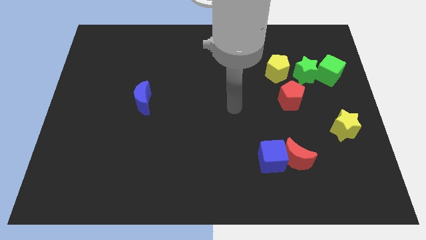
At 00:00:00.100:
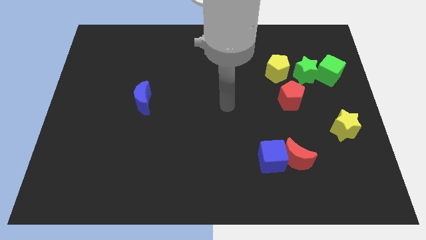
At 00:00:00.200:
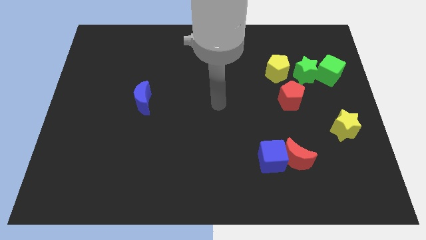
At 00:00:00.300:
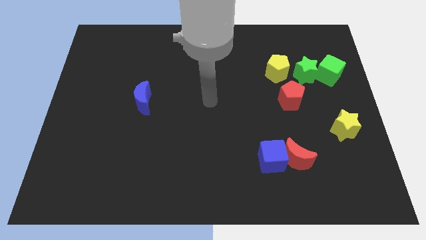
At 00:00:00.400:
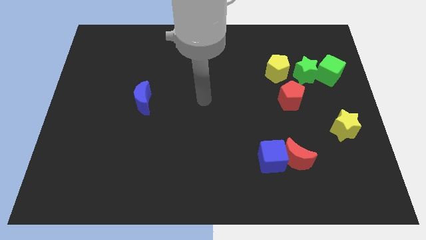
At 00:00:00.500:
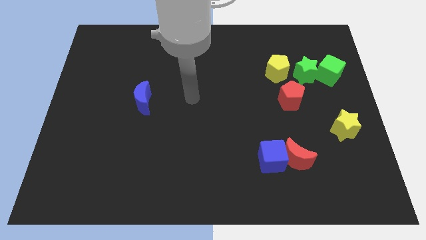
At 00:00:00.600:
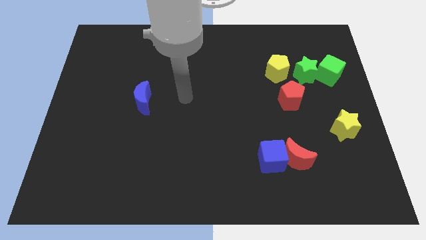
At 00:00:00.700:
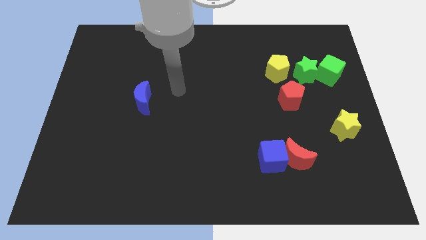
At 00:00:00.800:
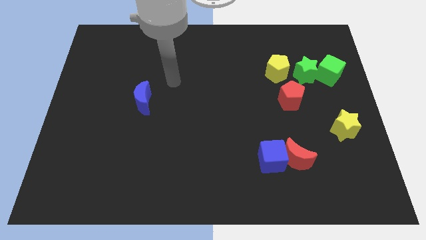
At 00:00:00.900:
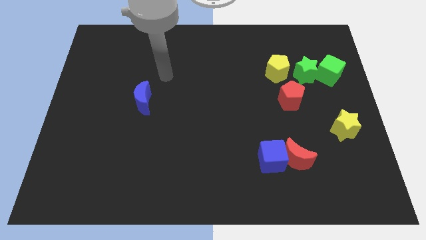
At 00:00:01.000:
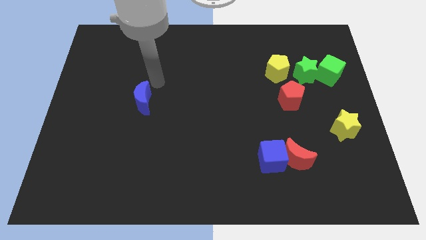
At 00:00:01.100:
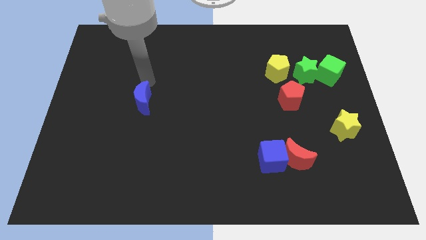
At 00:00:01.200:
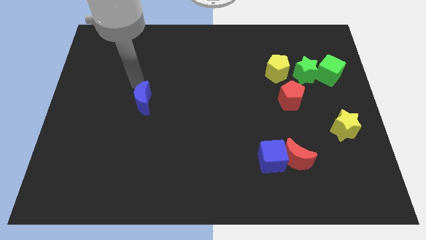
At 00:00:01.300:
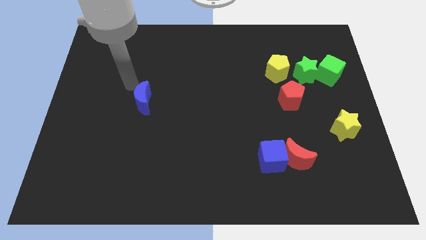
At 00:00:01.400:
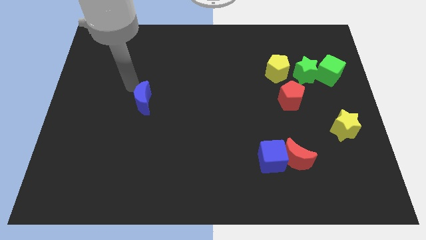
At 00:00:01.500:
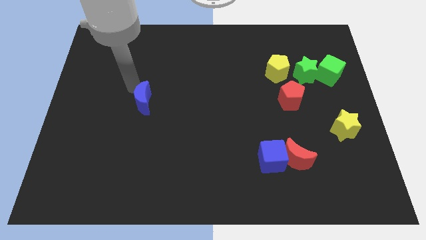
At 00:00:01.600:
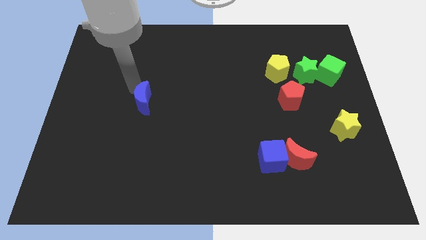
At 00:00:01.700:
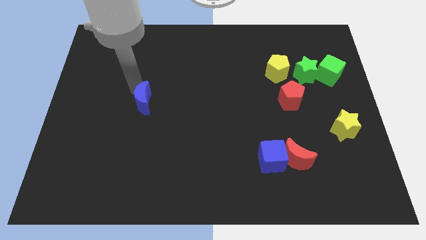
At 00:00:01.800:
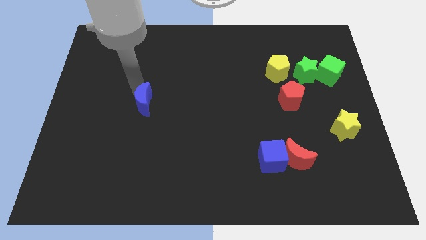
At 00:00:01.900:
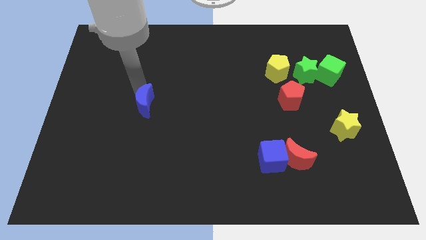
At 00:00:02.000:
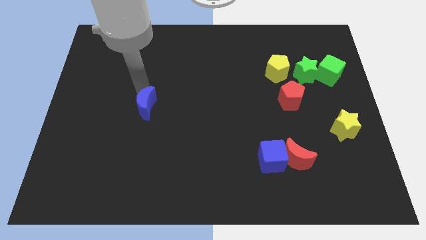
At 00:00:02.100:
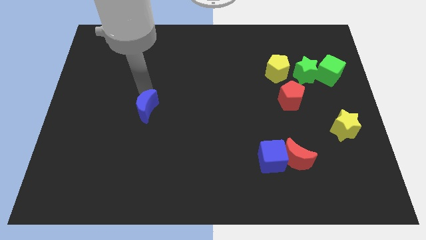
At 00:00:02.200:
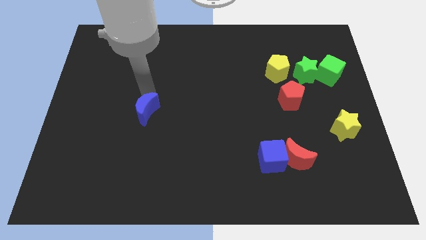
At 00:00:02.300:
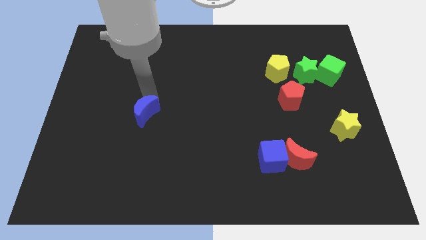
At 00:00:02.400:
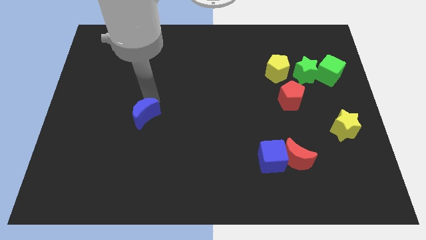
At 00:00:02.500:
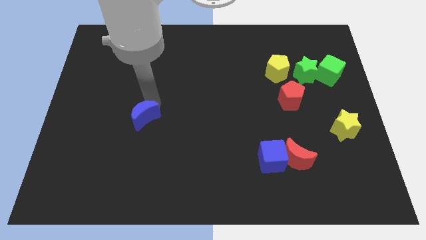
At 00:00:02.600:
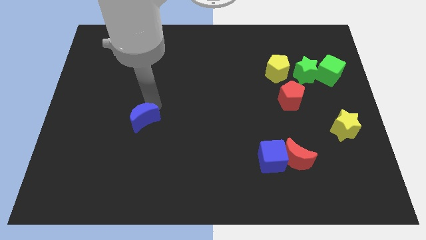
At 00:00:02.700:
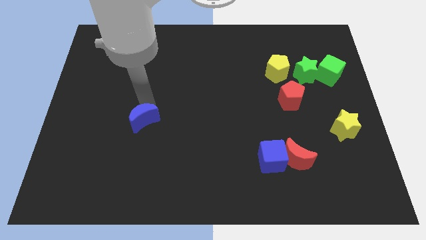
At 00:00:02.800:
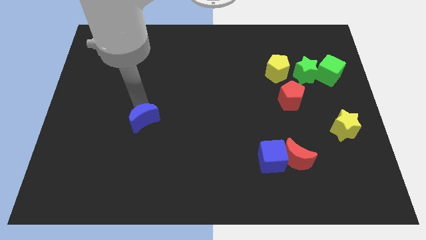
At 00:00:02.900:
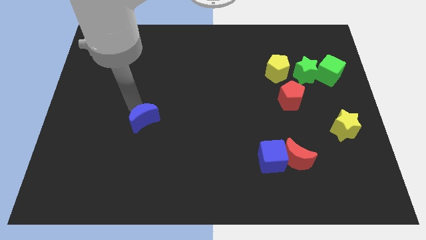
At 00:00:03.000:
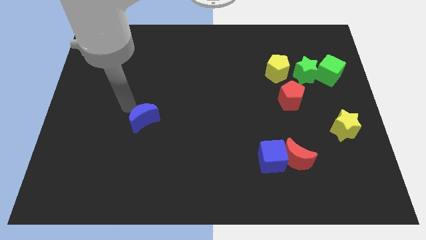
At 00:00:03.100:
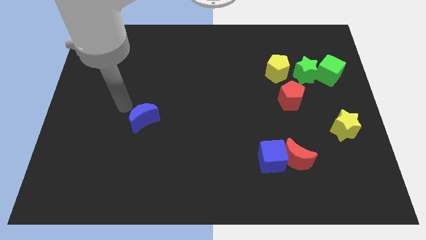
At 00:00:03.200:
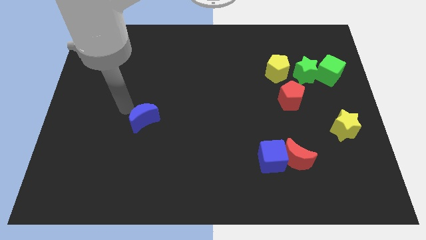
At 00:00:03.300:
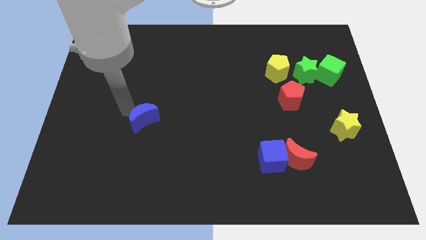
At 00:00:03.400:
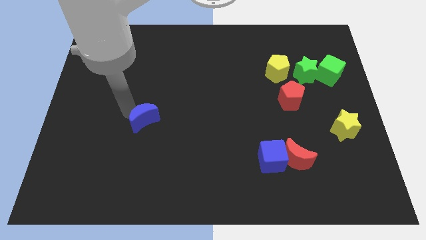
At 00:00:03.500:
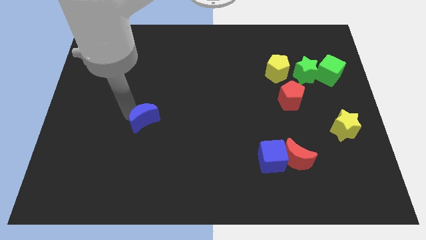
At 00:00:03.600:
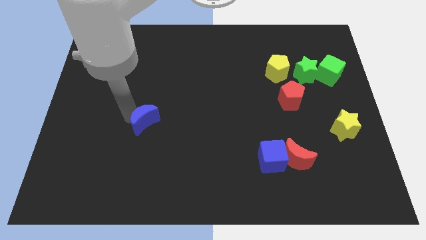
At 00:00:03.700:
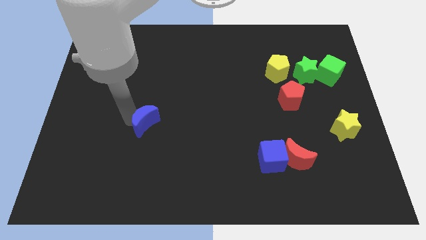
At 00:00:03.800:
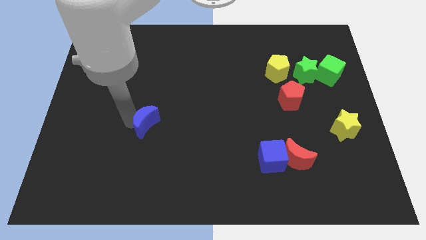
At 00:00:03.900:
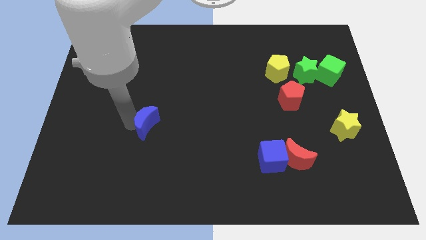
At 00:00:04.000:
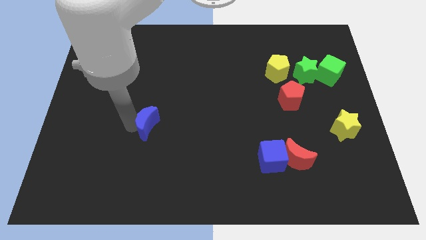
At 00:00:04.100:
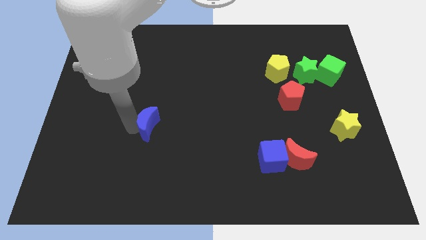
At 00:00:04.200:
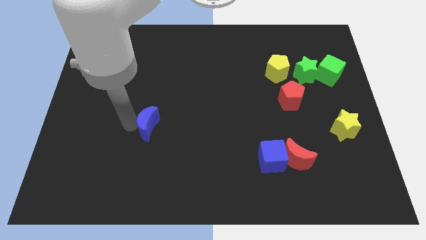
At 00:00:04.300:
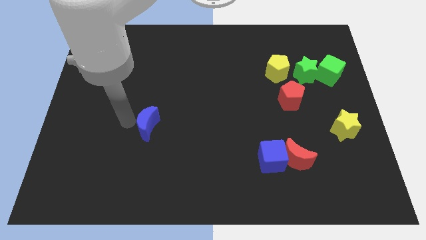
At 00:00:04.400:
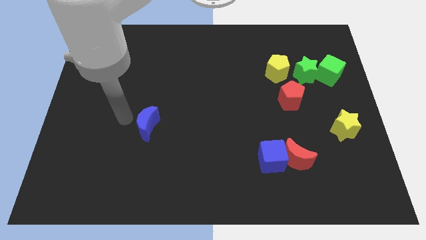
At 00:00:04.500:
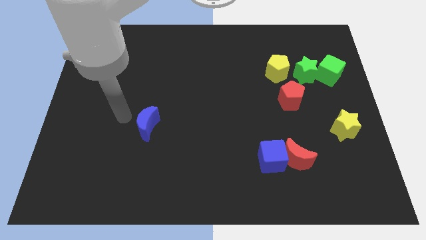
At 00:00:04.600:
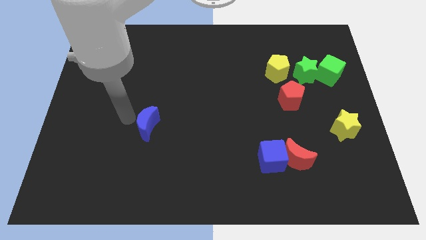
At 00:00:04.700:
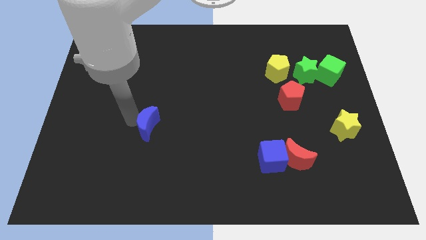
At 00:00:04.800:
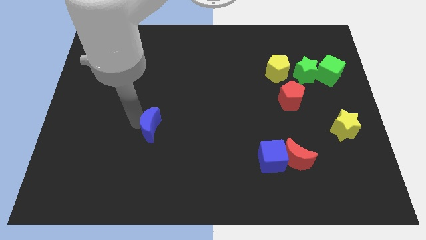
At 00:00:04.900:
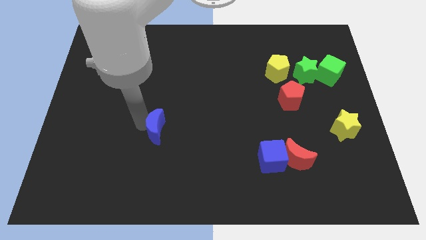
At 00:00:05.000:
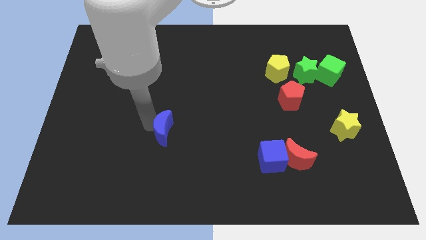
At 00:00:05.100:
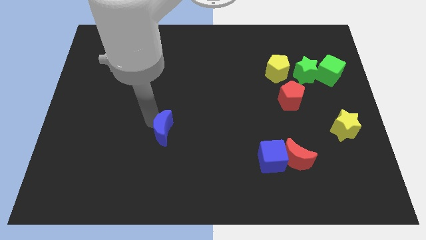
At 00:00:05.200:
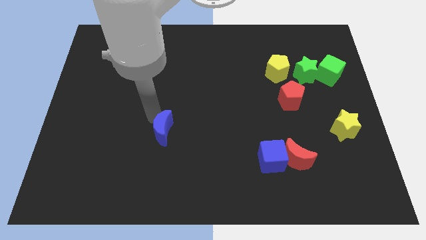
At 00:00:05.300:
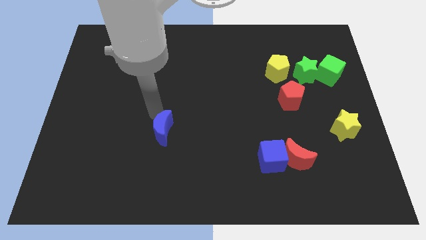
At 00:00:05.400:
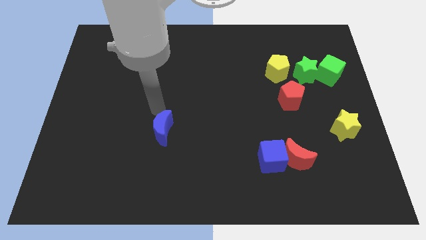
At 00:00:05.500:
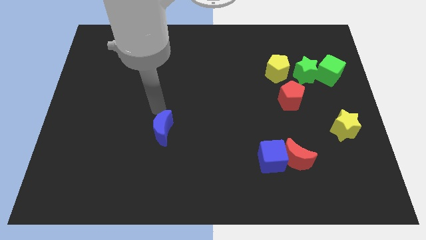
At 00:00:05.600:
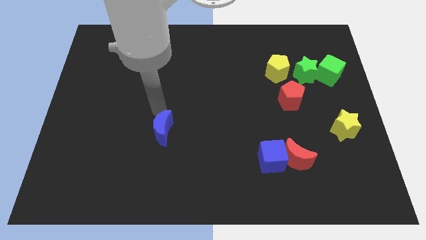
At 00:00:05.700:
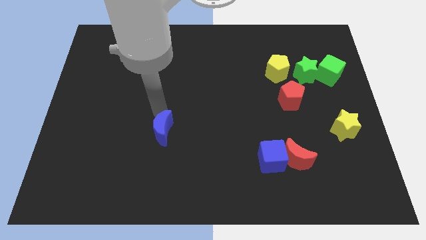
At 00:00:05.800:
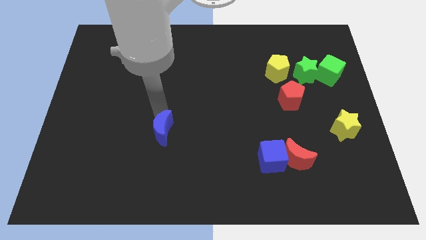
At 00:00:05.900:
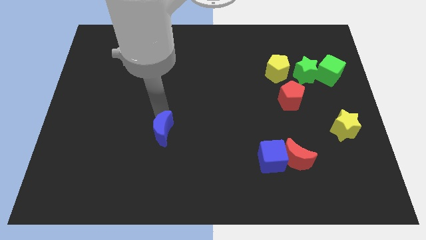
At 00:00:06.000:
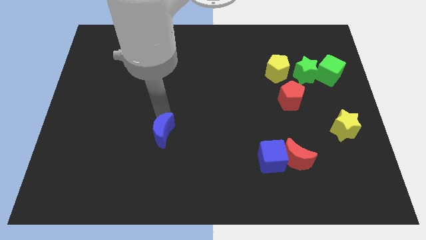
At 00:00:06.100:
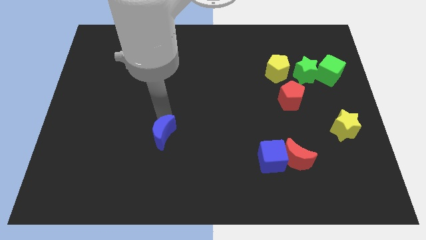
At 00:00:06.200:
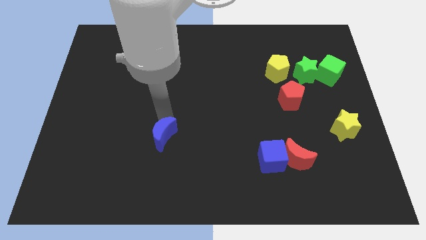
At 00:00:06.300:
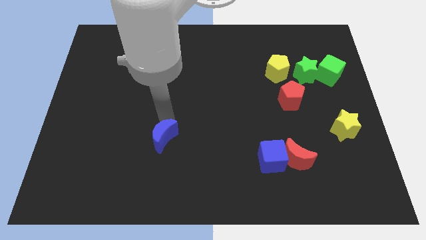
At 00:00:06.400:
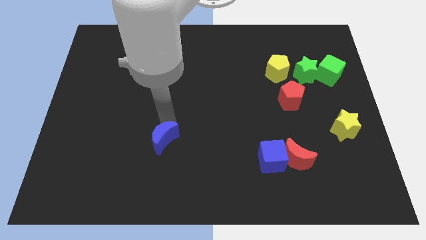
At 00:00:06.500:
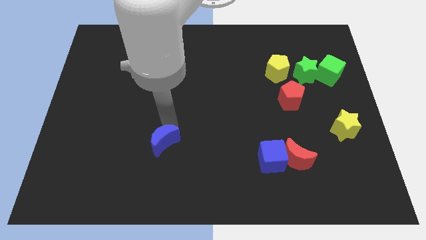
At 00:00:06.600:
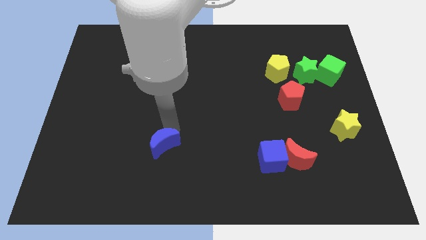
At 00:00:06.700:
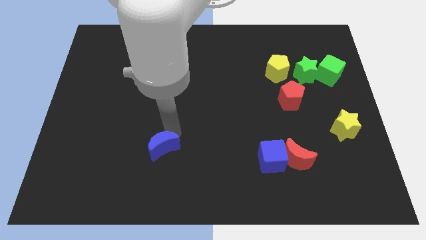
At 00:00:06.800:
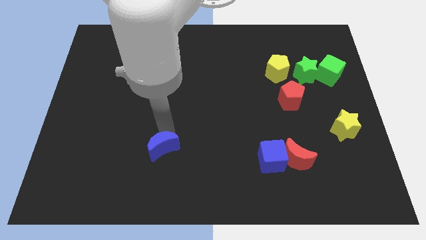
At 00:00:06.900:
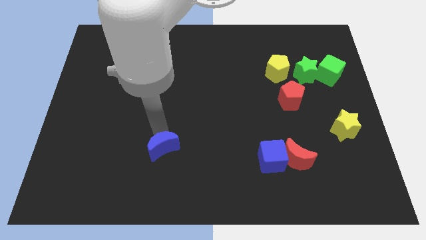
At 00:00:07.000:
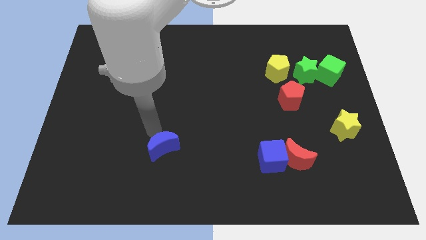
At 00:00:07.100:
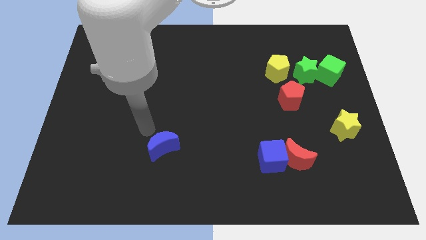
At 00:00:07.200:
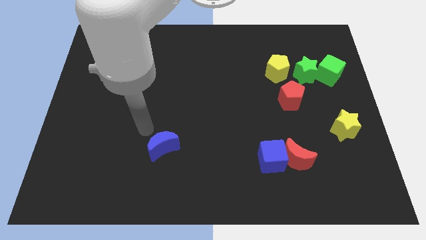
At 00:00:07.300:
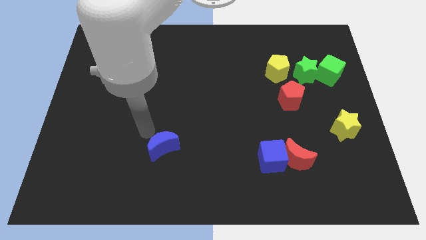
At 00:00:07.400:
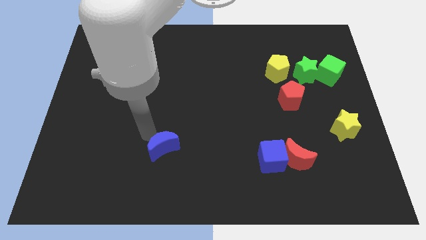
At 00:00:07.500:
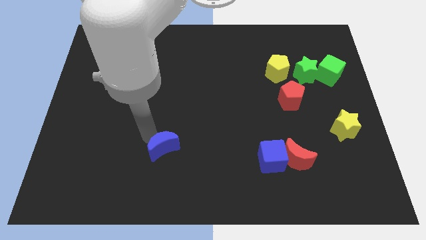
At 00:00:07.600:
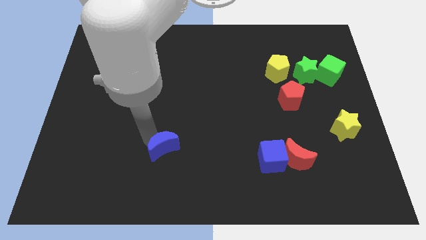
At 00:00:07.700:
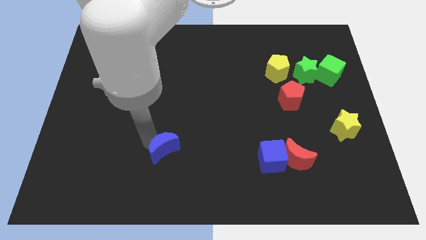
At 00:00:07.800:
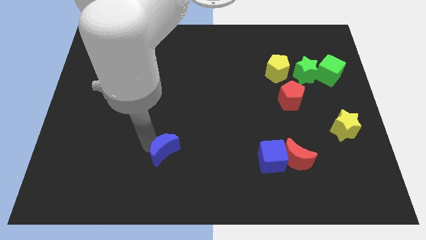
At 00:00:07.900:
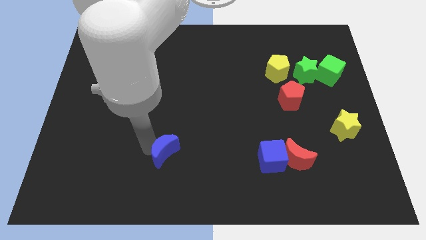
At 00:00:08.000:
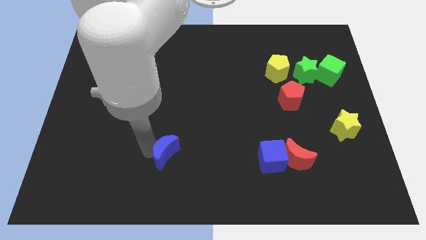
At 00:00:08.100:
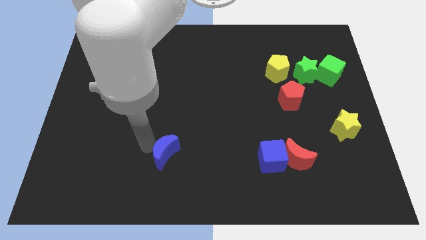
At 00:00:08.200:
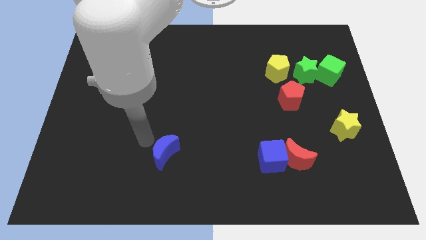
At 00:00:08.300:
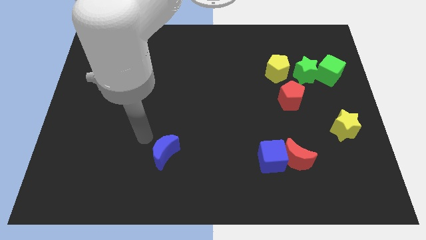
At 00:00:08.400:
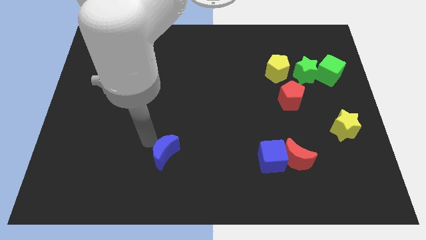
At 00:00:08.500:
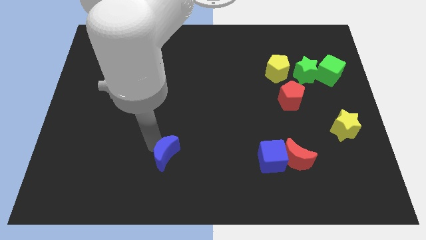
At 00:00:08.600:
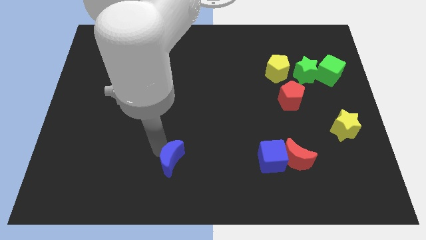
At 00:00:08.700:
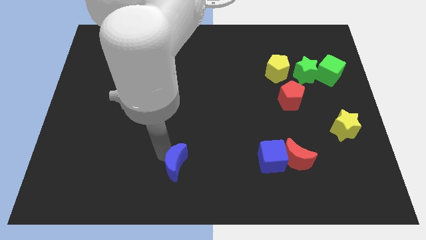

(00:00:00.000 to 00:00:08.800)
slide the blue moon to the bottom side
